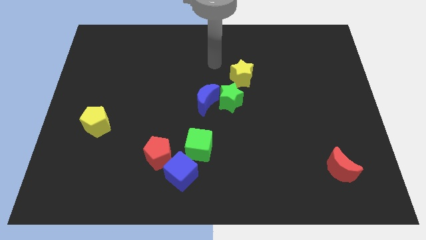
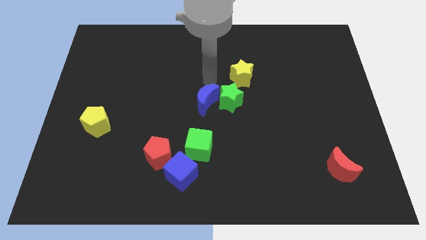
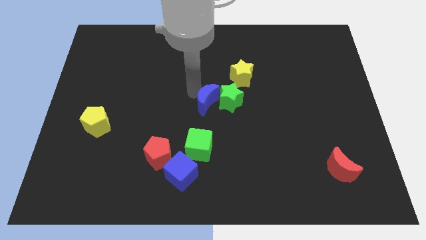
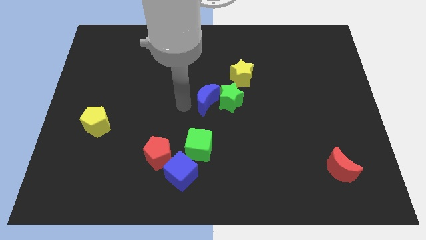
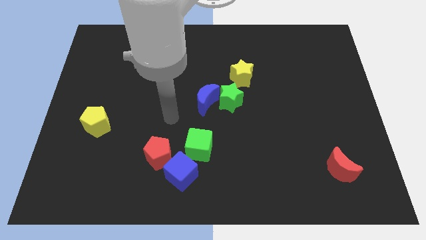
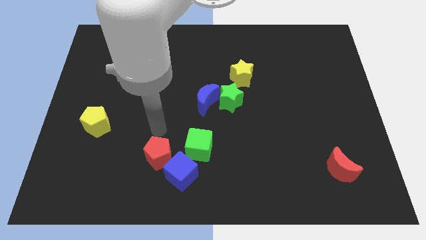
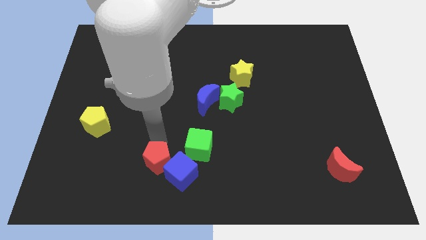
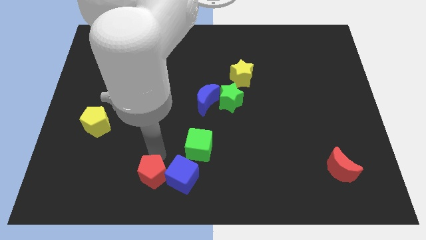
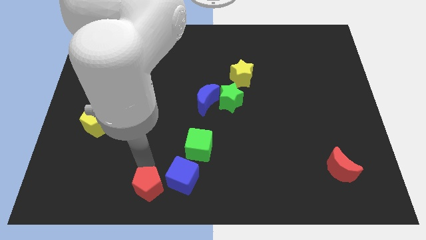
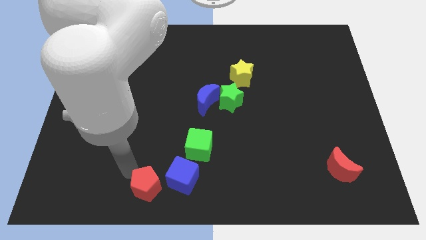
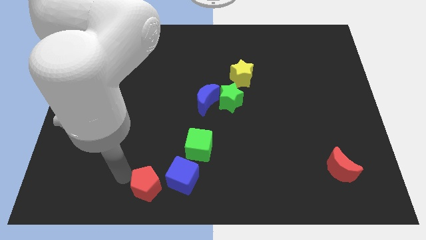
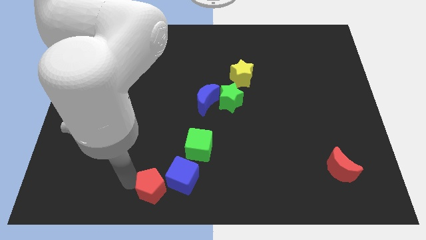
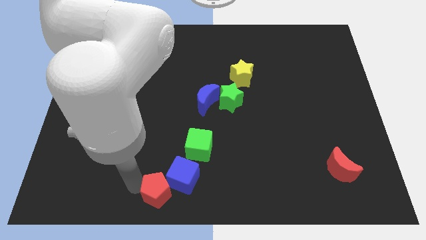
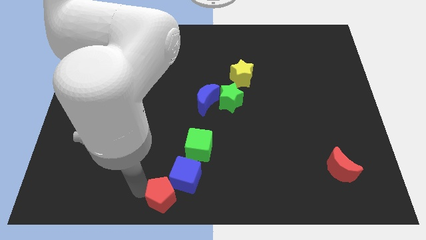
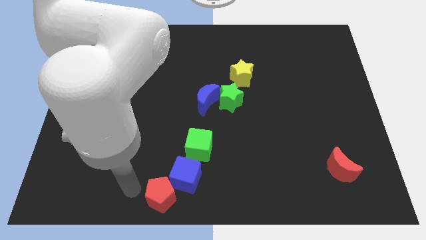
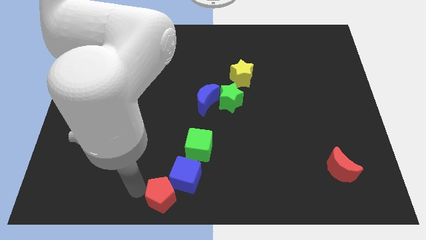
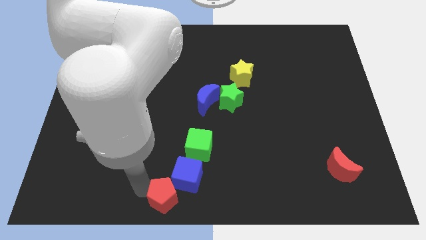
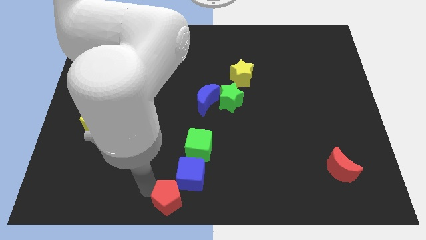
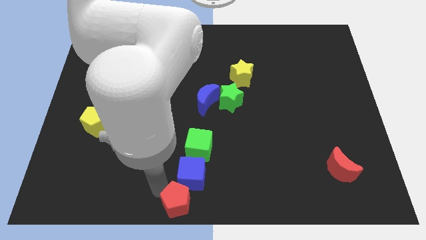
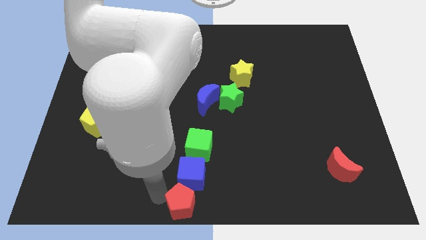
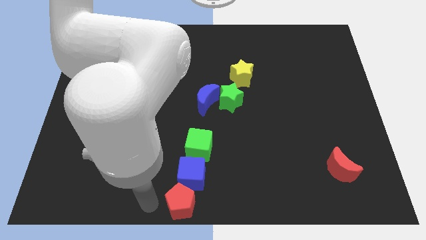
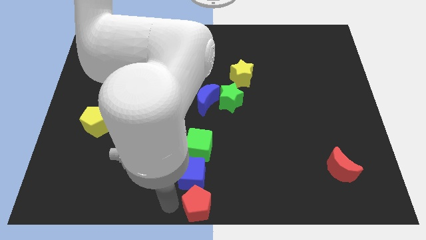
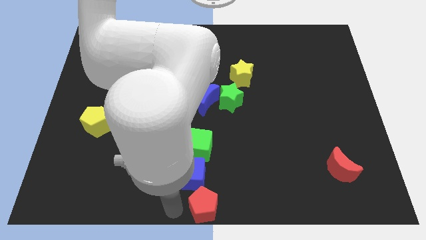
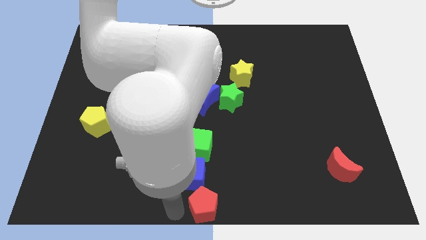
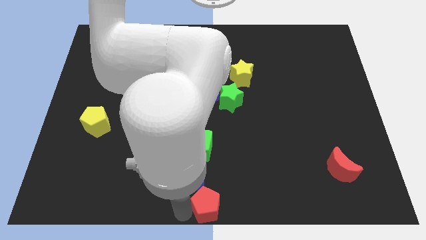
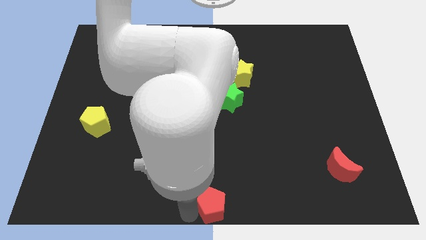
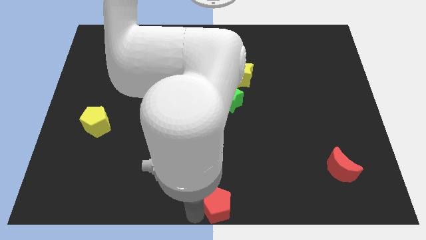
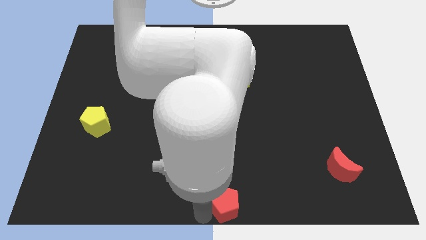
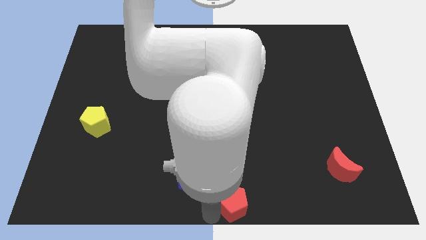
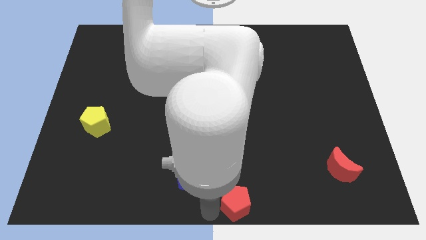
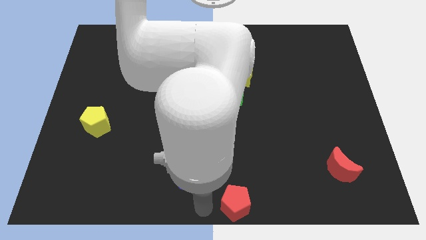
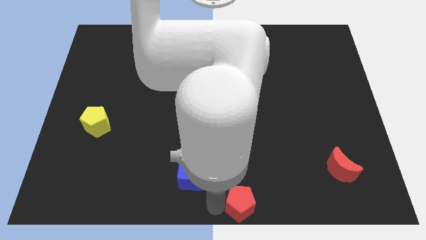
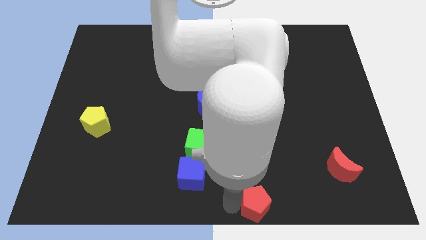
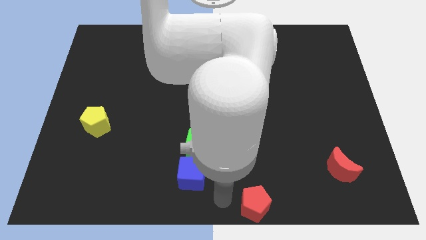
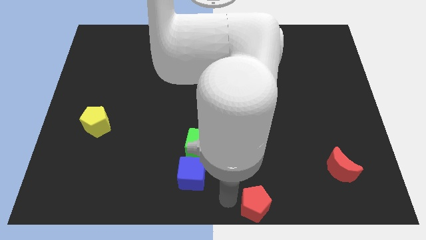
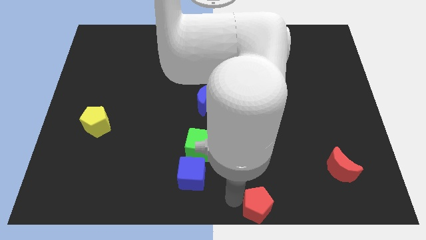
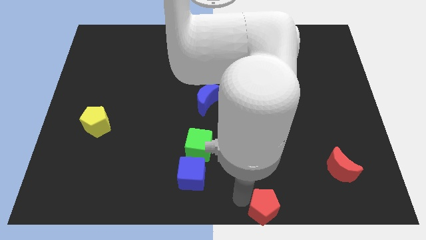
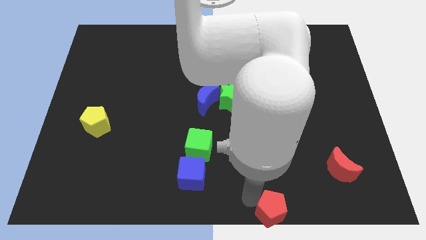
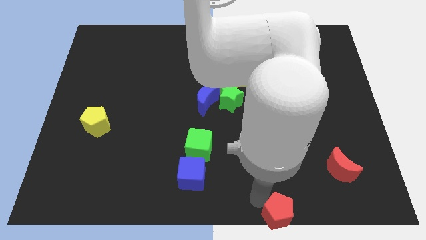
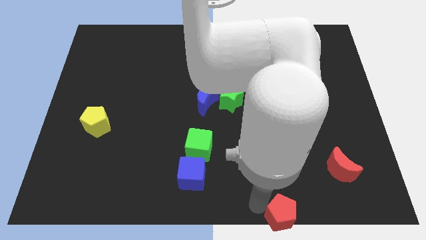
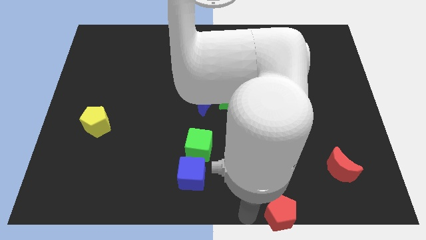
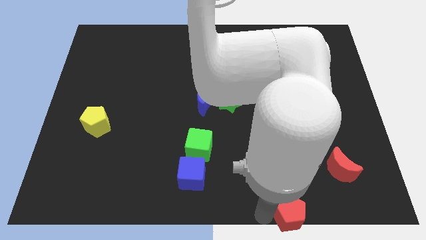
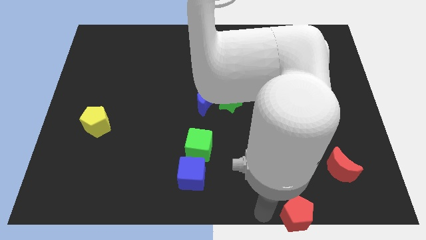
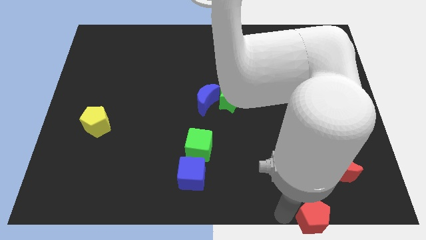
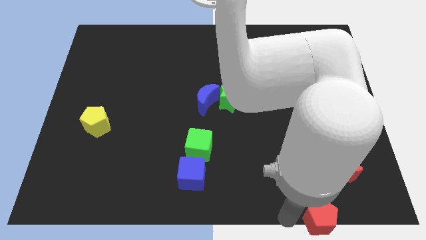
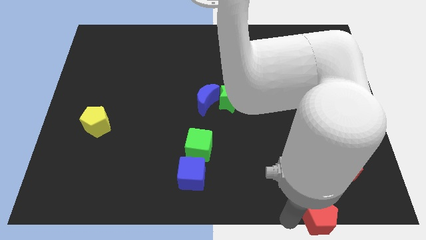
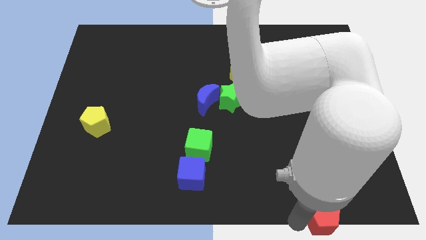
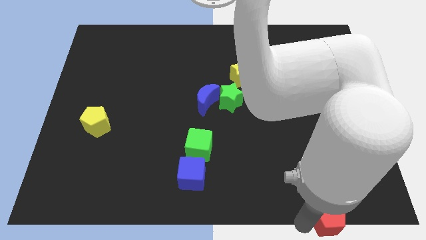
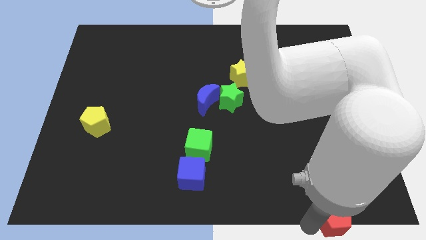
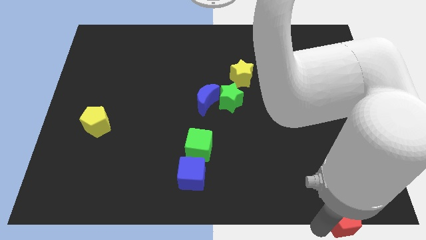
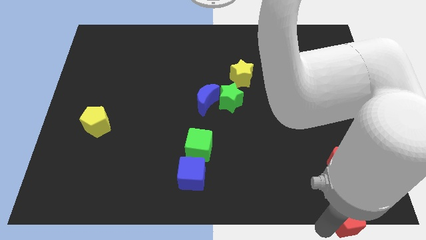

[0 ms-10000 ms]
put the red pentagon to the bottom right of the board

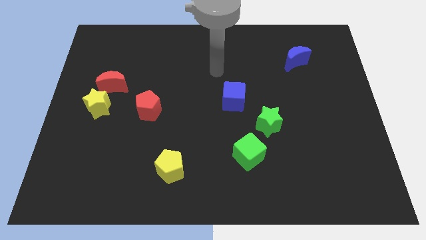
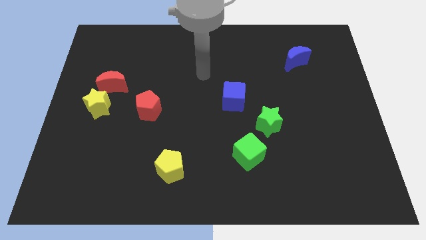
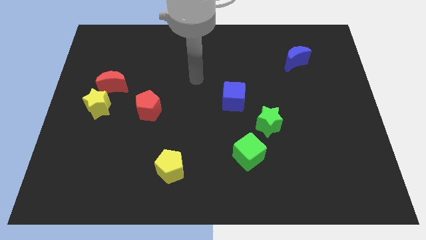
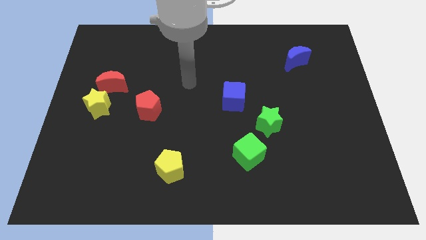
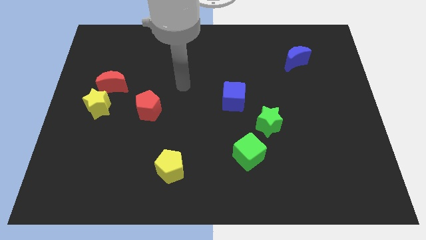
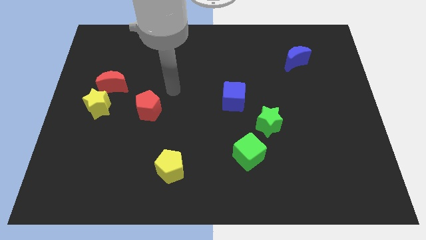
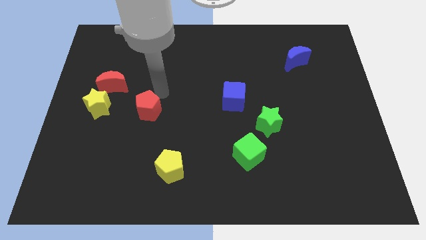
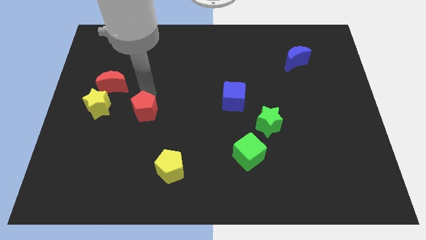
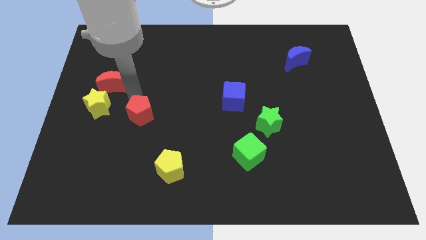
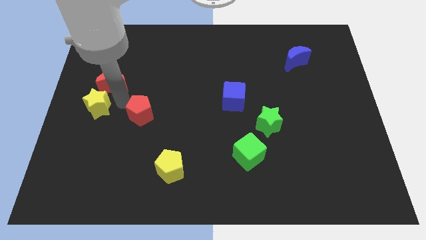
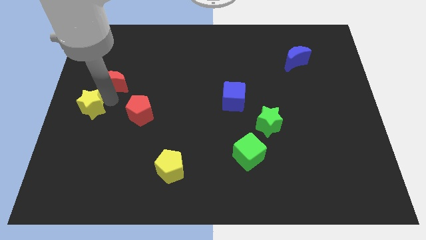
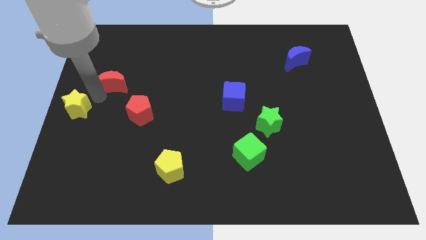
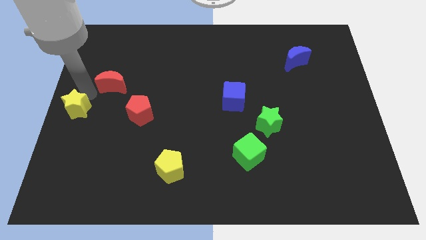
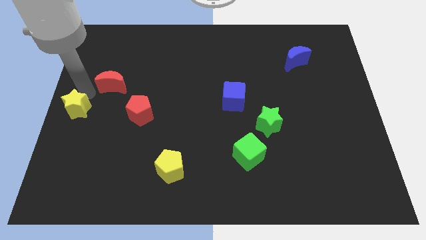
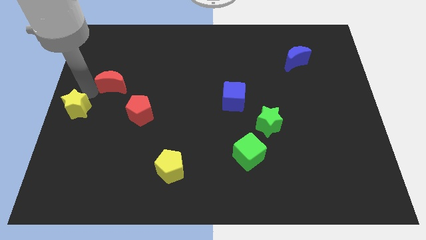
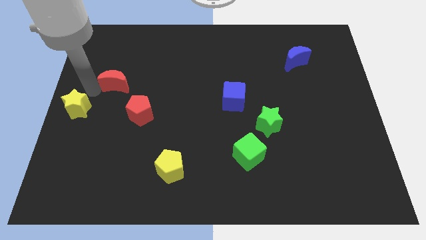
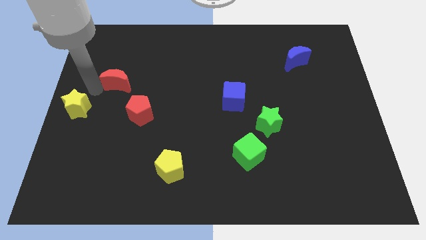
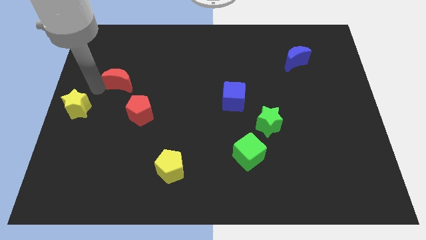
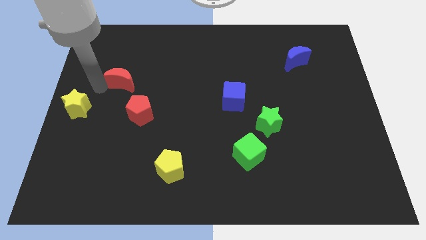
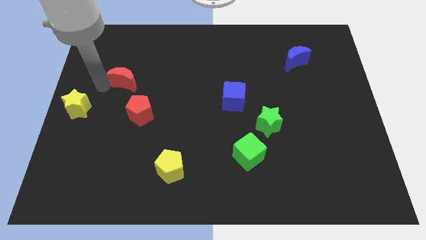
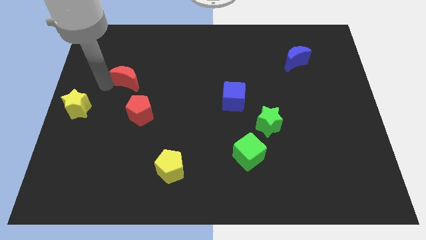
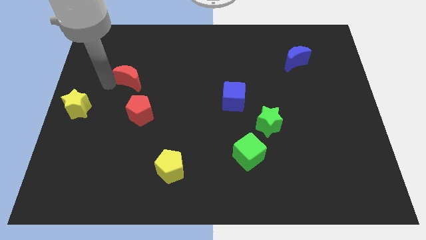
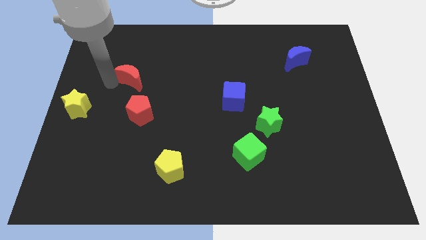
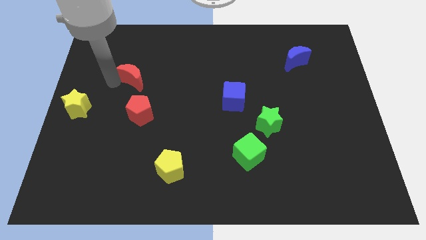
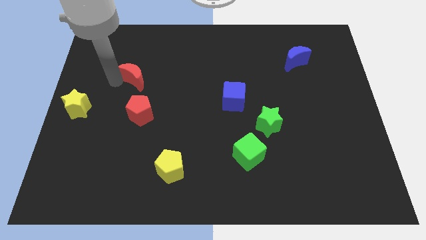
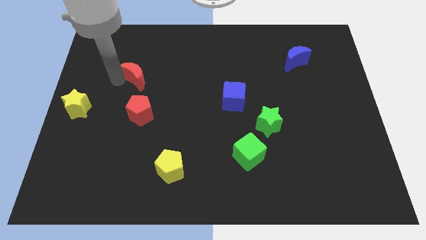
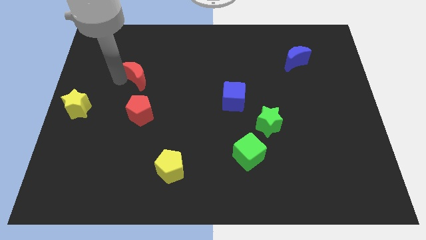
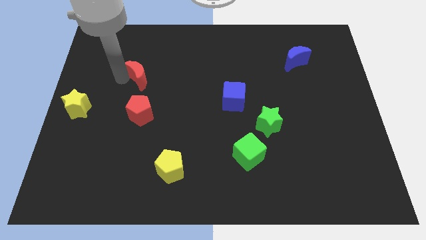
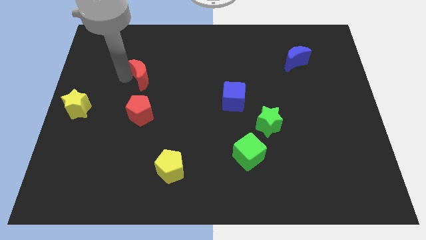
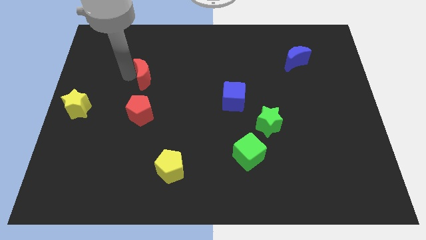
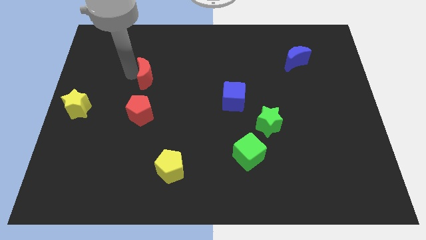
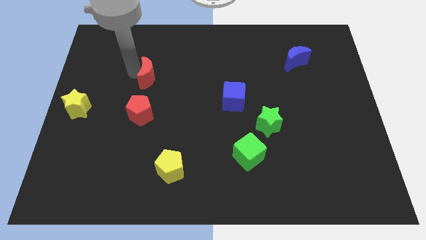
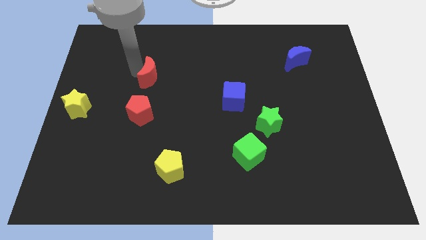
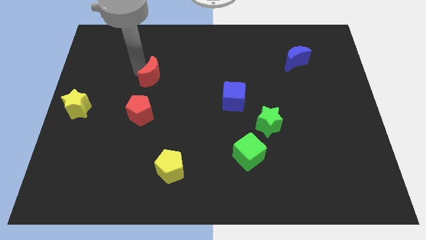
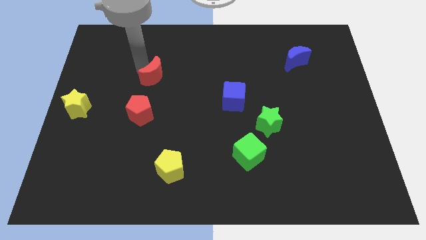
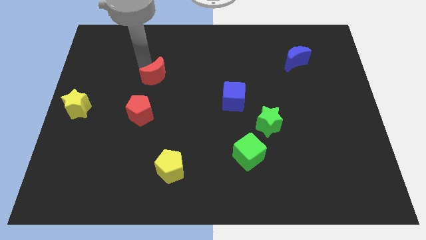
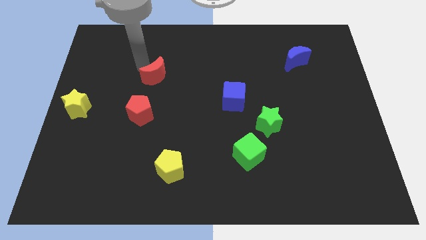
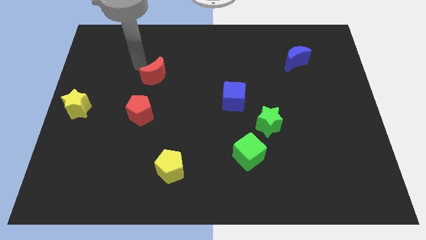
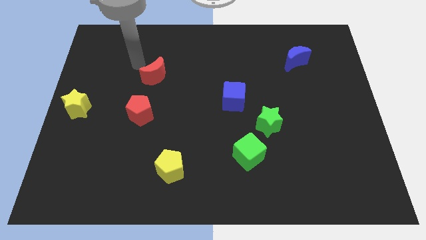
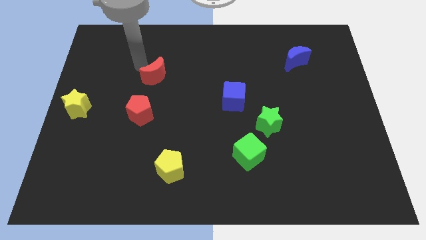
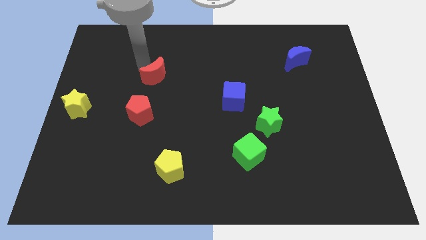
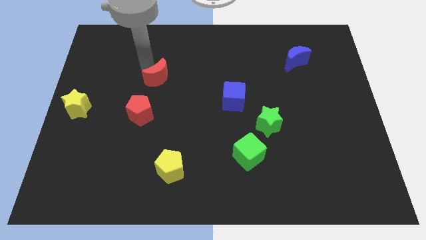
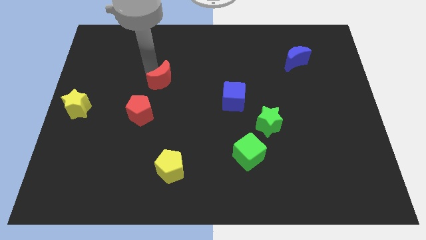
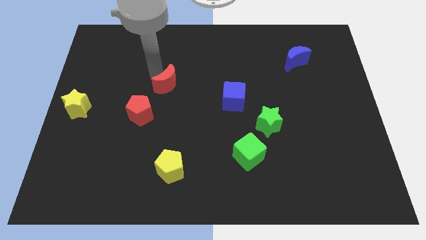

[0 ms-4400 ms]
put the red moon to the middle
